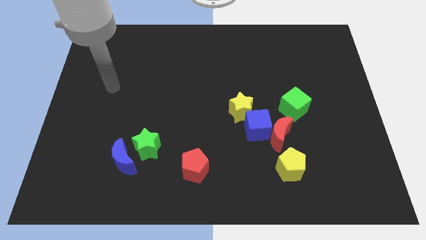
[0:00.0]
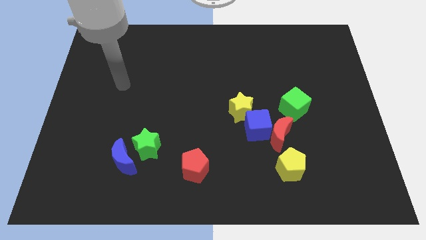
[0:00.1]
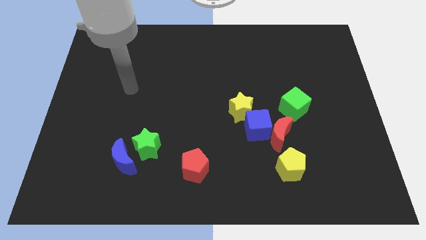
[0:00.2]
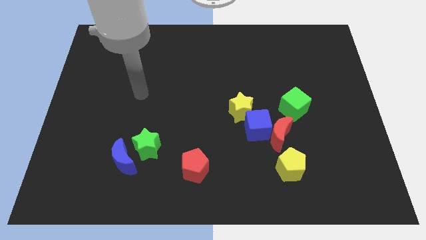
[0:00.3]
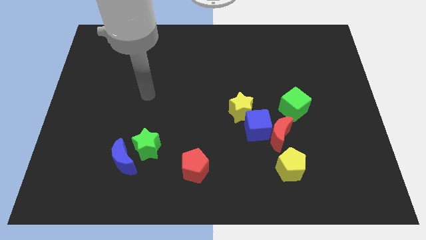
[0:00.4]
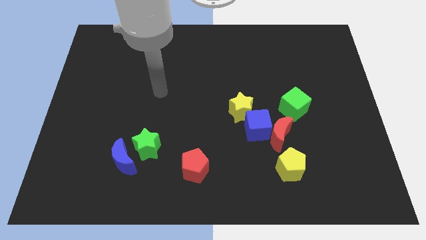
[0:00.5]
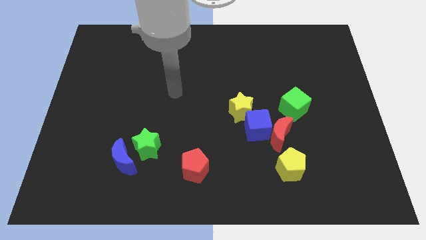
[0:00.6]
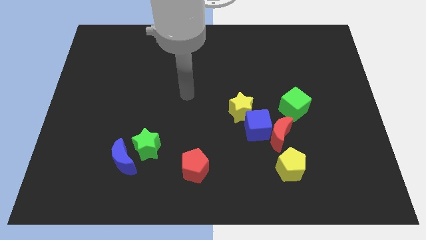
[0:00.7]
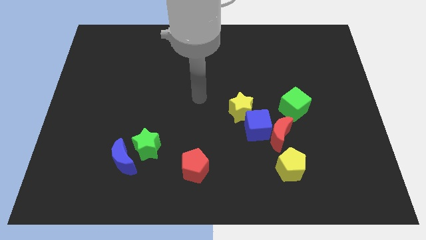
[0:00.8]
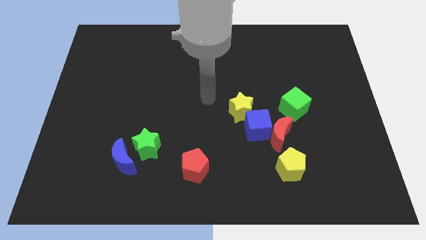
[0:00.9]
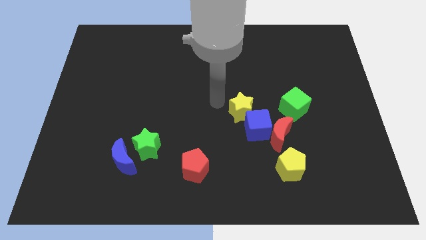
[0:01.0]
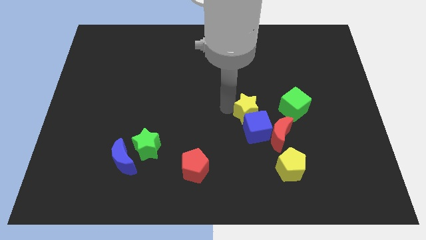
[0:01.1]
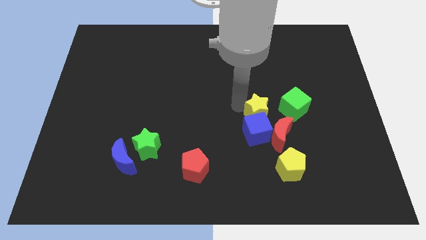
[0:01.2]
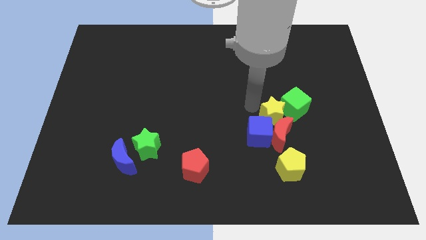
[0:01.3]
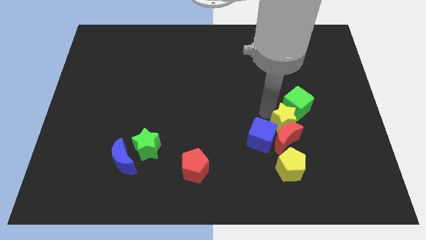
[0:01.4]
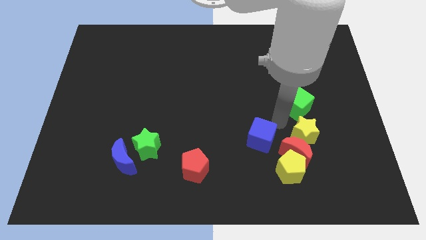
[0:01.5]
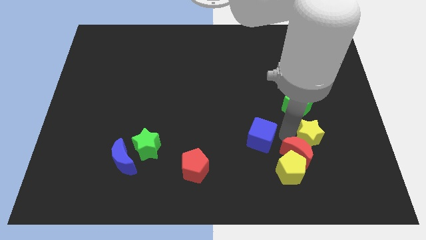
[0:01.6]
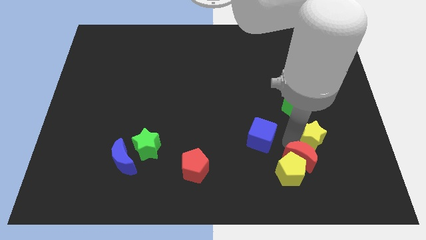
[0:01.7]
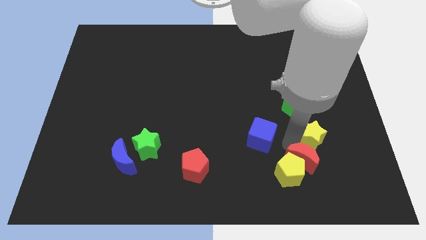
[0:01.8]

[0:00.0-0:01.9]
move the blue cube away from the red moon and yellow star

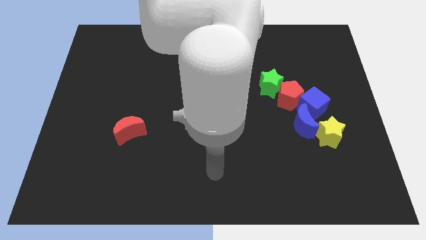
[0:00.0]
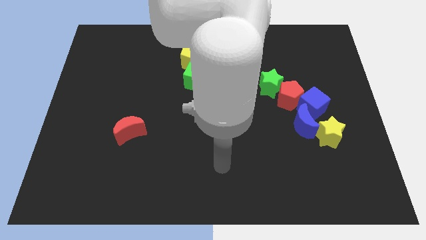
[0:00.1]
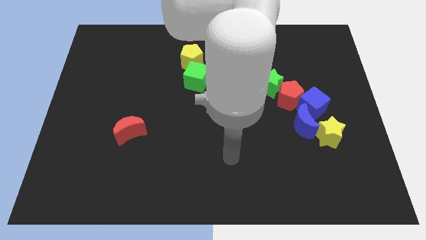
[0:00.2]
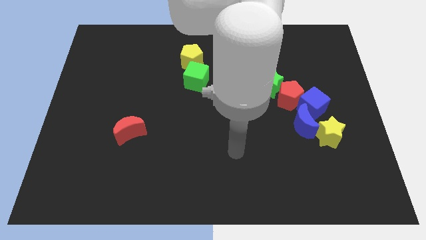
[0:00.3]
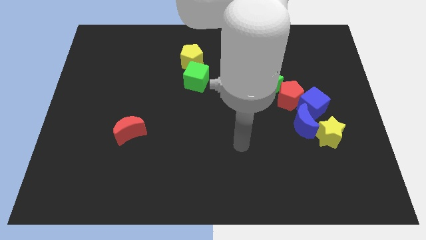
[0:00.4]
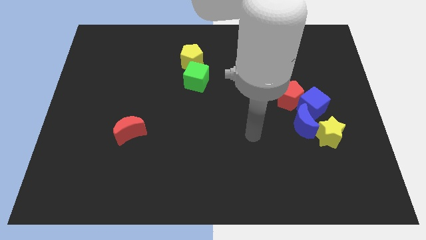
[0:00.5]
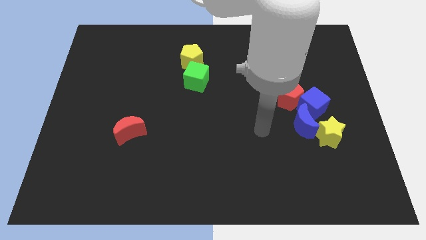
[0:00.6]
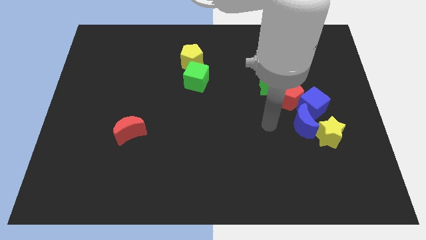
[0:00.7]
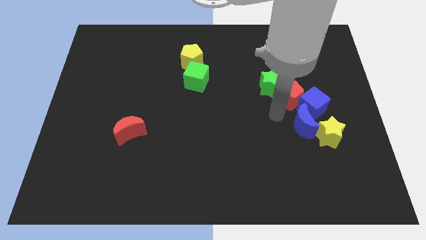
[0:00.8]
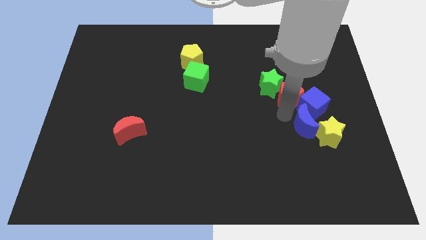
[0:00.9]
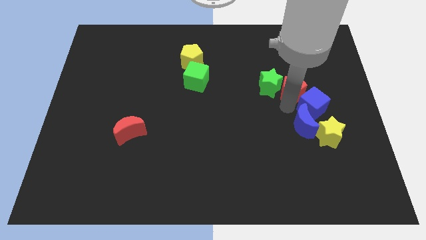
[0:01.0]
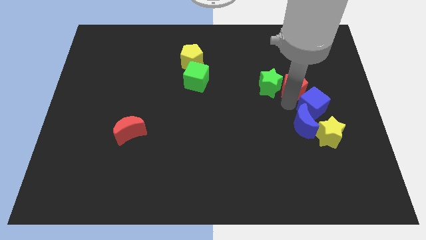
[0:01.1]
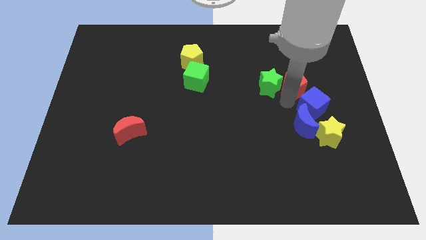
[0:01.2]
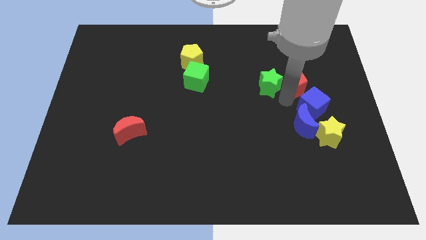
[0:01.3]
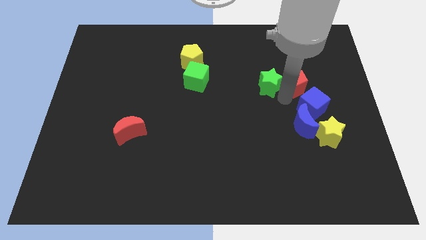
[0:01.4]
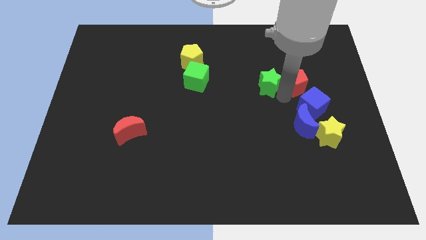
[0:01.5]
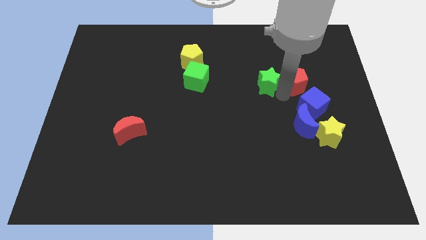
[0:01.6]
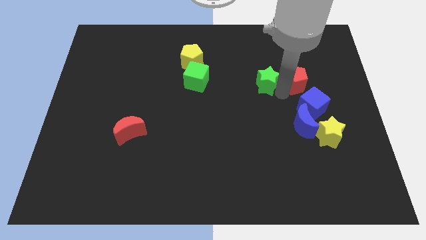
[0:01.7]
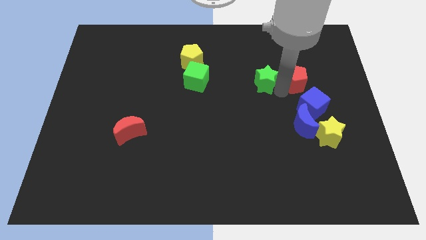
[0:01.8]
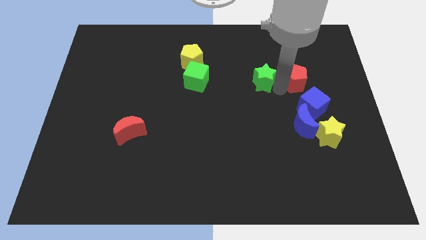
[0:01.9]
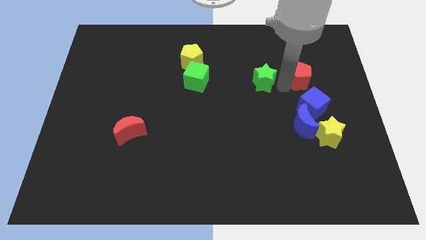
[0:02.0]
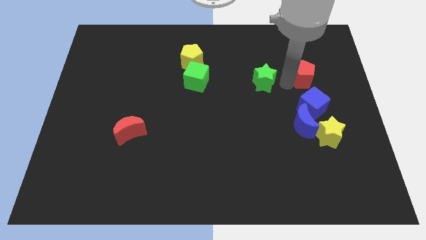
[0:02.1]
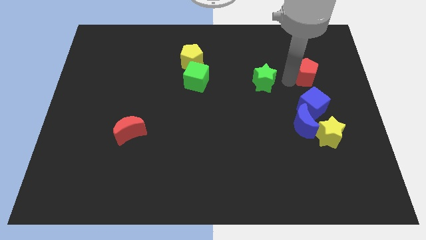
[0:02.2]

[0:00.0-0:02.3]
move the green star away from the red pentagon

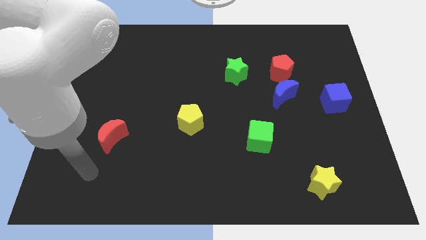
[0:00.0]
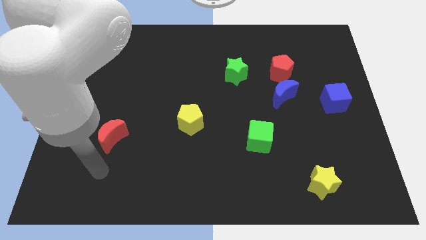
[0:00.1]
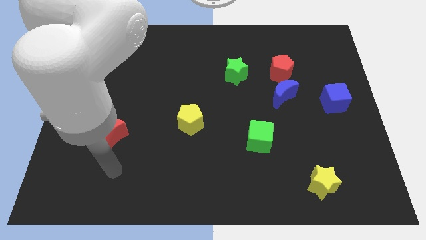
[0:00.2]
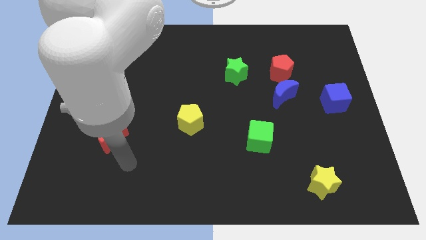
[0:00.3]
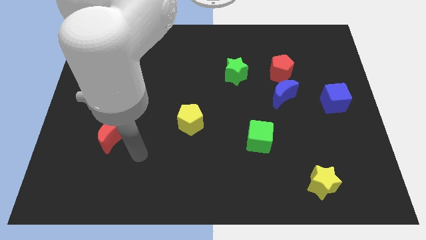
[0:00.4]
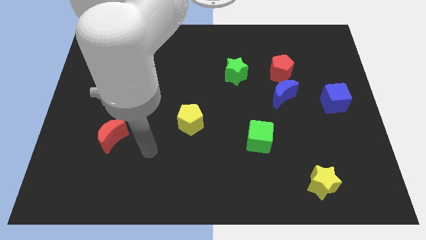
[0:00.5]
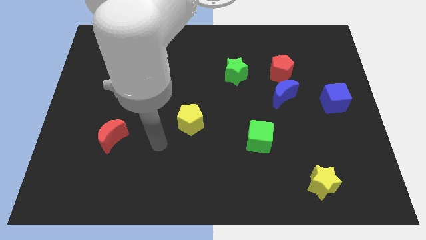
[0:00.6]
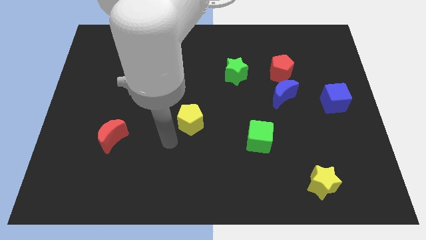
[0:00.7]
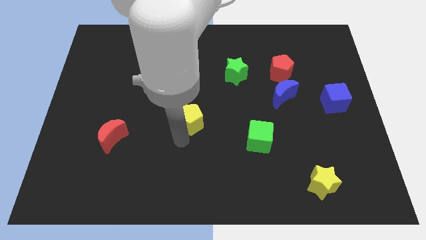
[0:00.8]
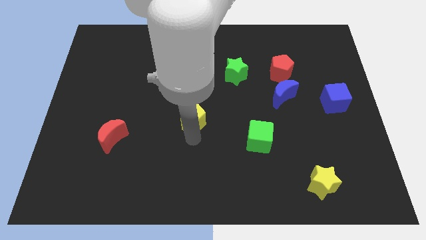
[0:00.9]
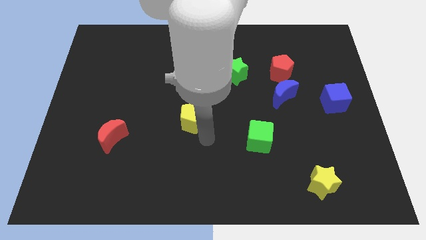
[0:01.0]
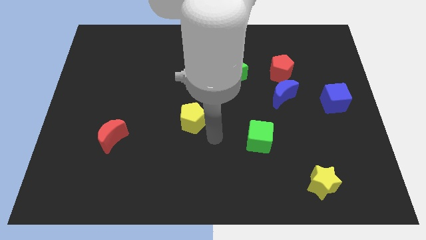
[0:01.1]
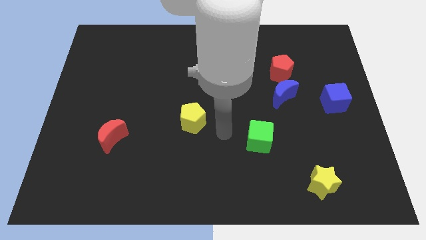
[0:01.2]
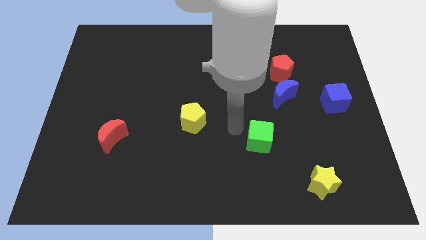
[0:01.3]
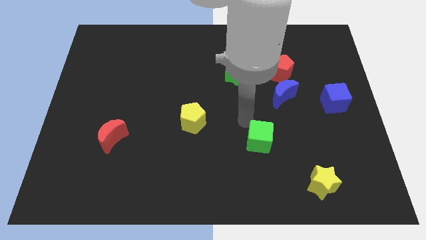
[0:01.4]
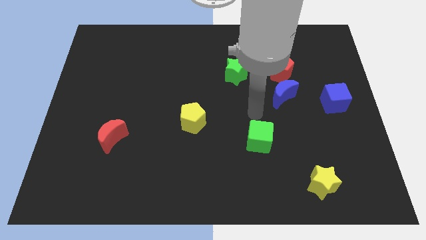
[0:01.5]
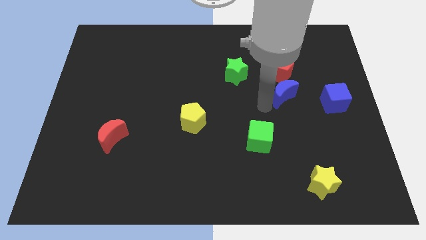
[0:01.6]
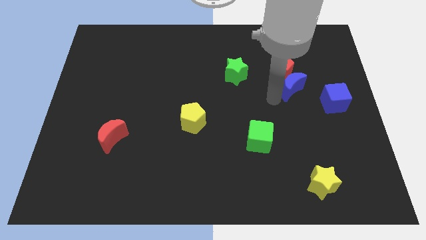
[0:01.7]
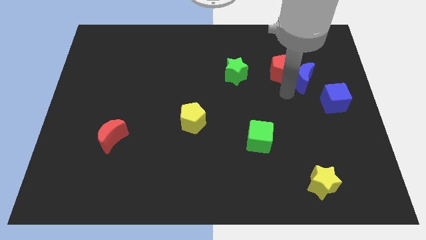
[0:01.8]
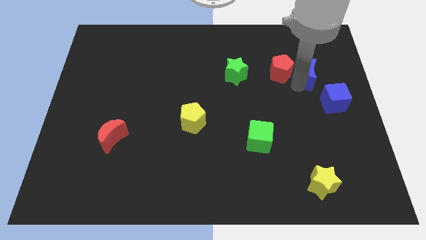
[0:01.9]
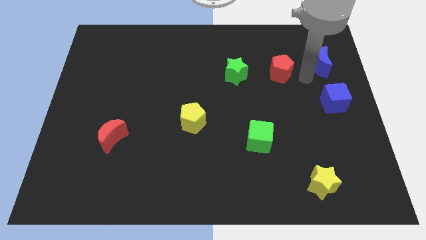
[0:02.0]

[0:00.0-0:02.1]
pull the red pentagon apart from the blue moon

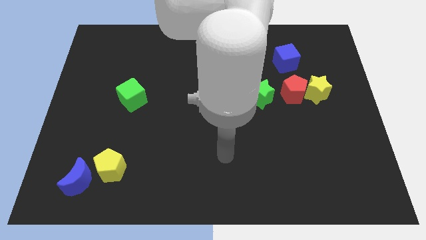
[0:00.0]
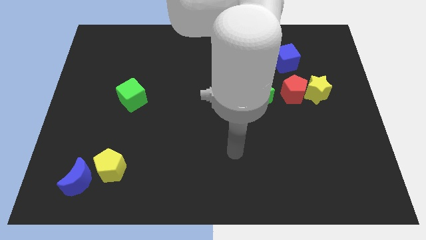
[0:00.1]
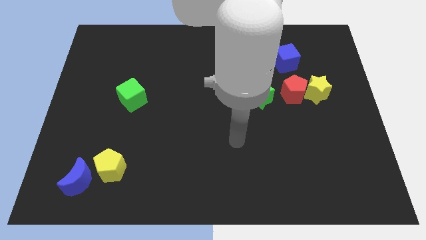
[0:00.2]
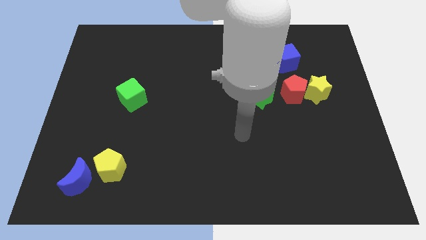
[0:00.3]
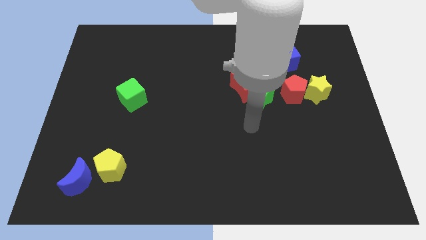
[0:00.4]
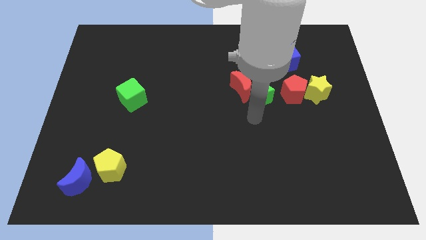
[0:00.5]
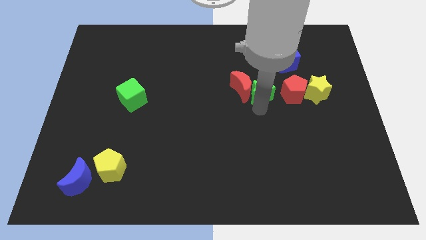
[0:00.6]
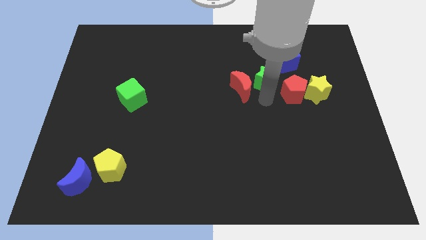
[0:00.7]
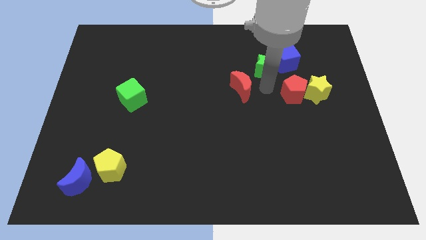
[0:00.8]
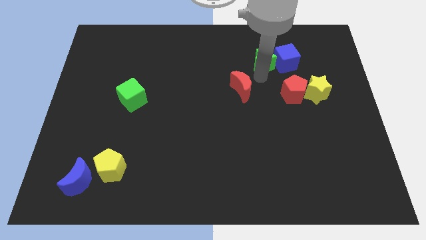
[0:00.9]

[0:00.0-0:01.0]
separate the red moon from the green star

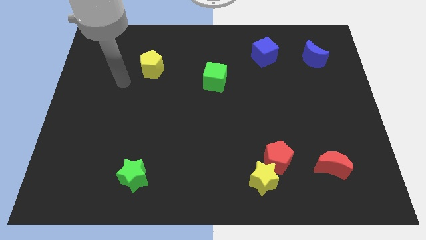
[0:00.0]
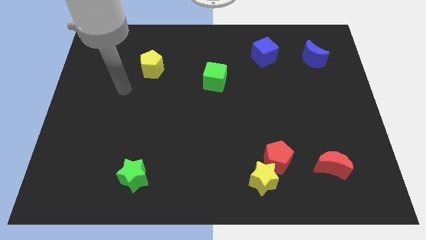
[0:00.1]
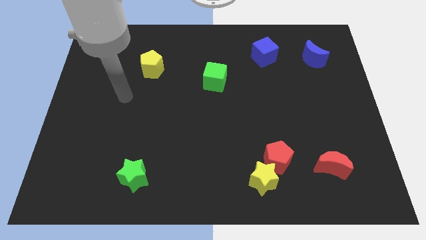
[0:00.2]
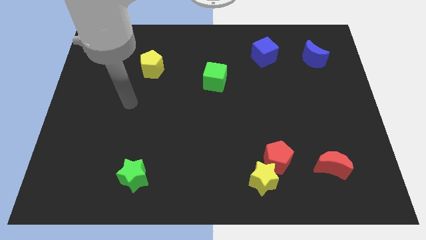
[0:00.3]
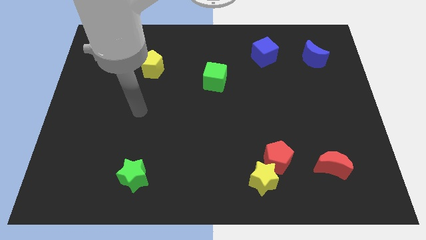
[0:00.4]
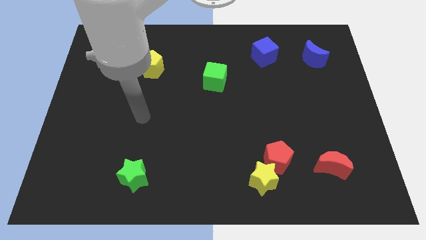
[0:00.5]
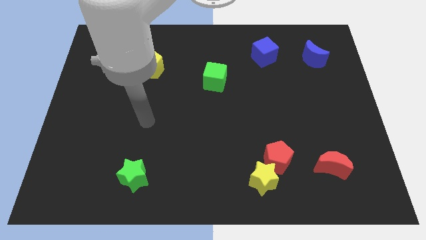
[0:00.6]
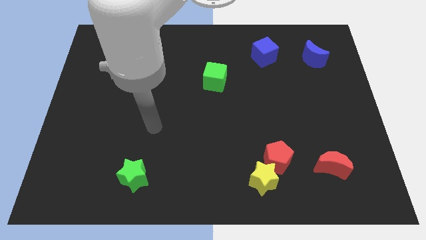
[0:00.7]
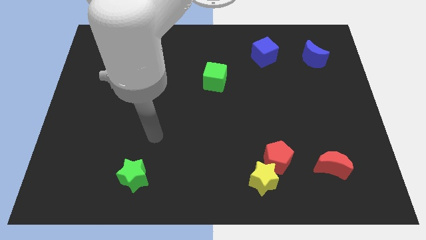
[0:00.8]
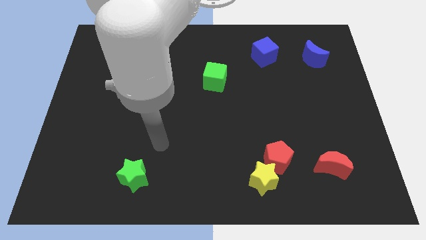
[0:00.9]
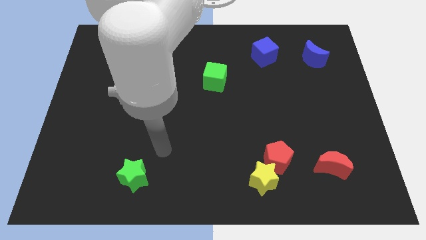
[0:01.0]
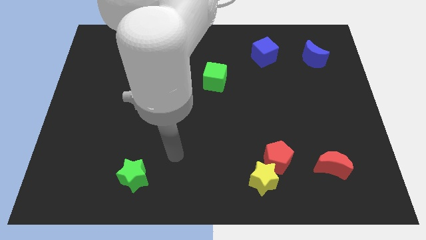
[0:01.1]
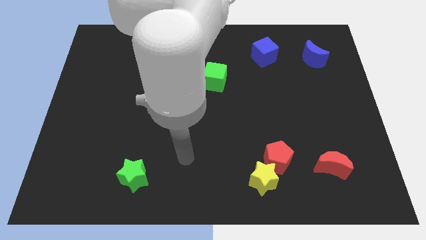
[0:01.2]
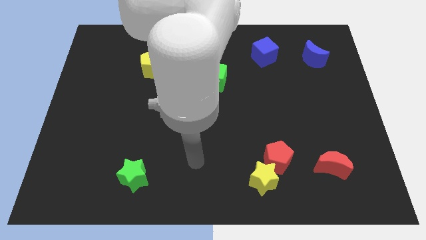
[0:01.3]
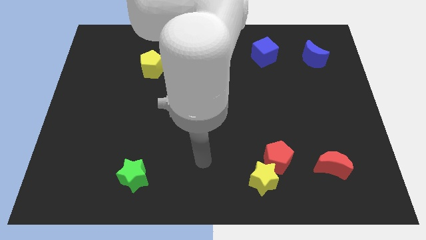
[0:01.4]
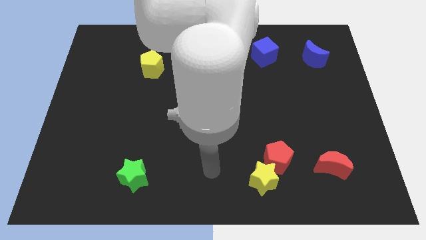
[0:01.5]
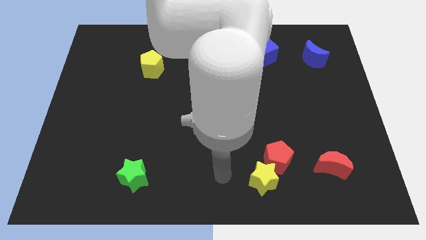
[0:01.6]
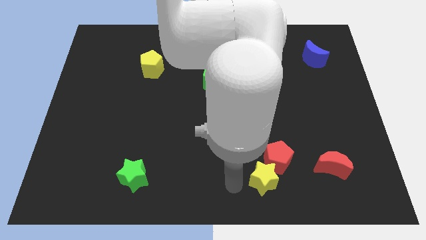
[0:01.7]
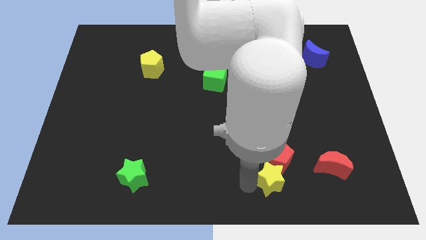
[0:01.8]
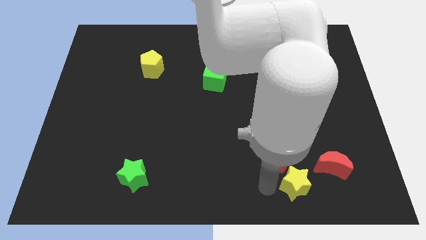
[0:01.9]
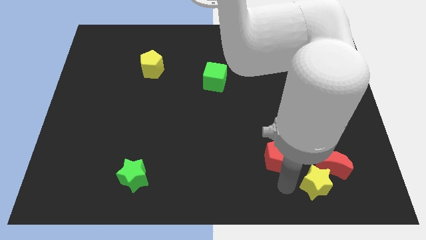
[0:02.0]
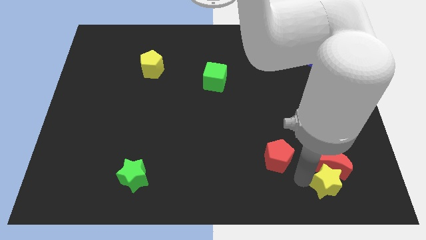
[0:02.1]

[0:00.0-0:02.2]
pull the red pentagon apart from the yellow star
